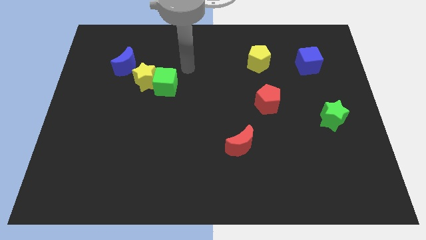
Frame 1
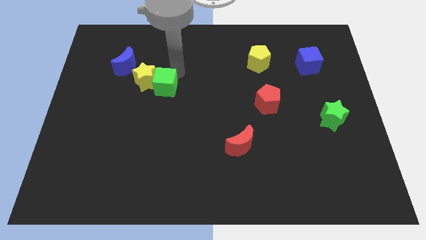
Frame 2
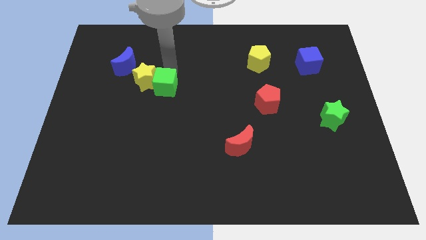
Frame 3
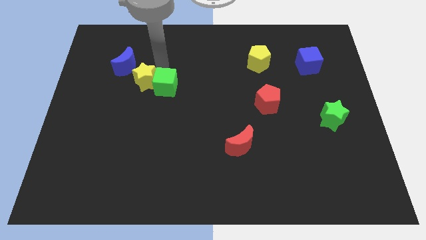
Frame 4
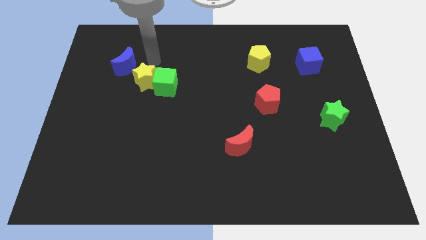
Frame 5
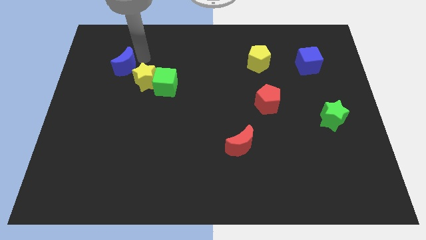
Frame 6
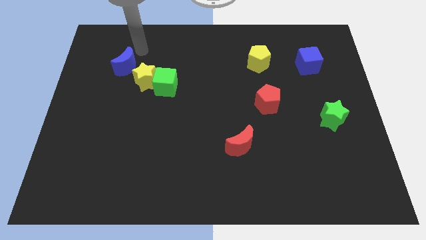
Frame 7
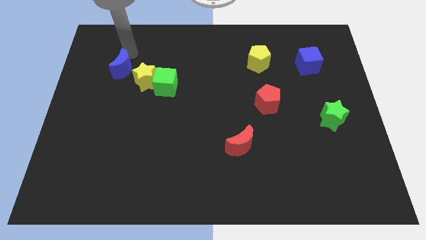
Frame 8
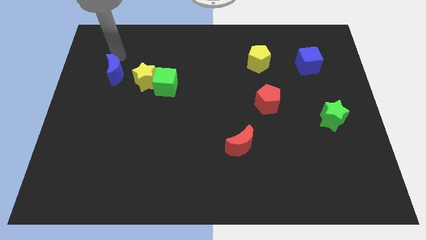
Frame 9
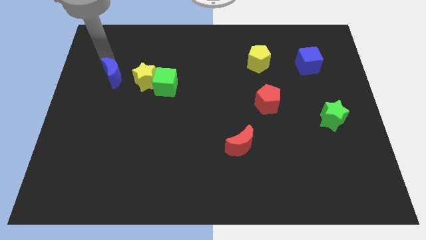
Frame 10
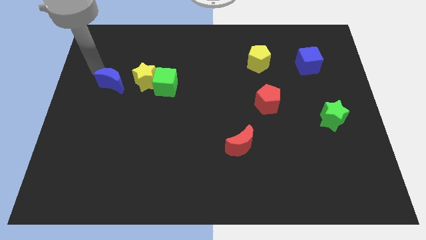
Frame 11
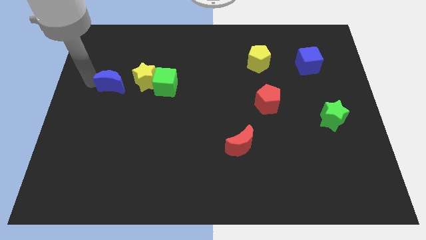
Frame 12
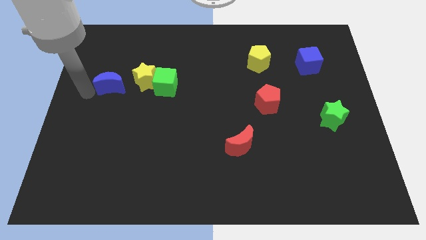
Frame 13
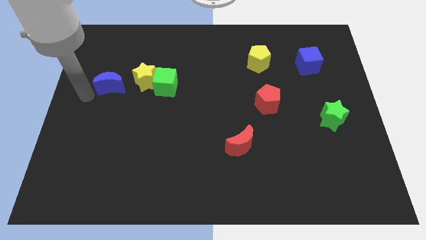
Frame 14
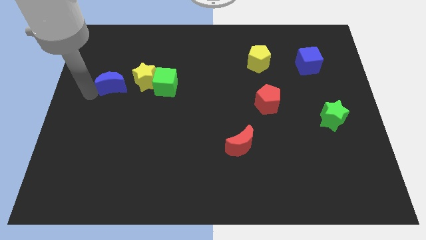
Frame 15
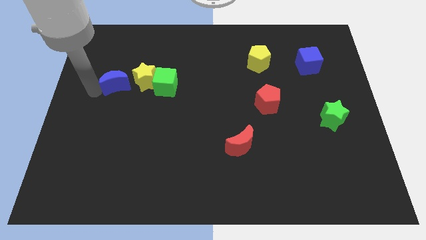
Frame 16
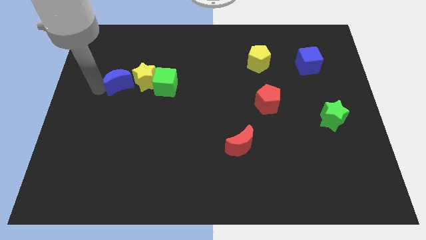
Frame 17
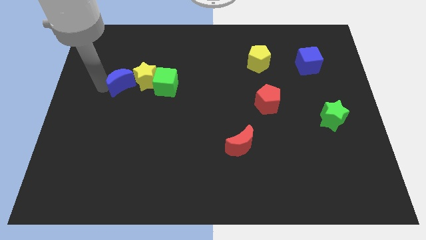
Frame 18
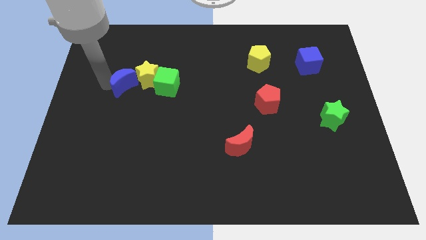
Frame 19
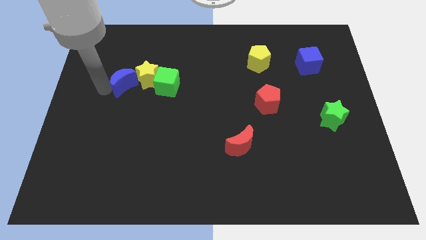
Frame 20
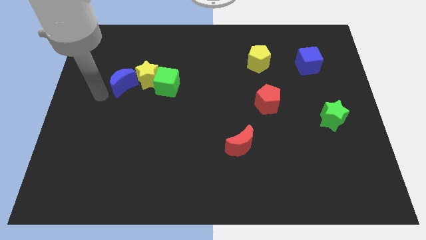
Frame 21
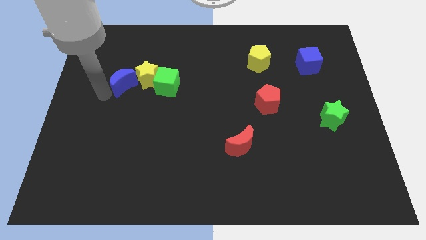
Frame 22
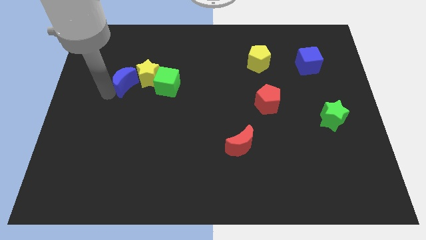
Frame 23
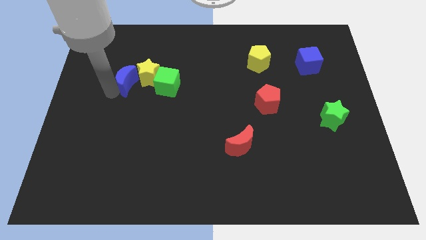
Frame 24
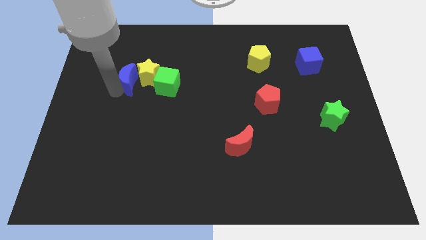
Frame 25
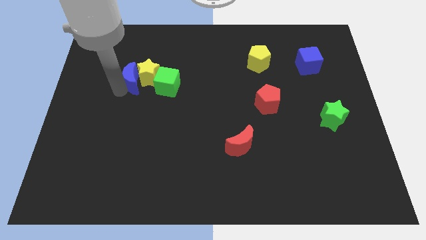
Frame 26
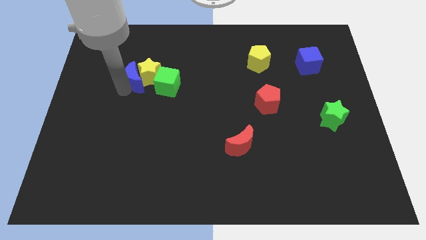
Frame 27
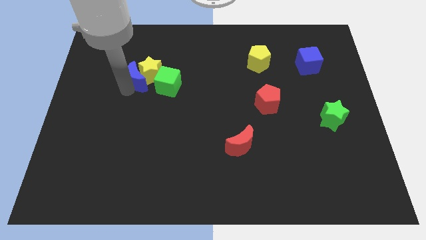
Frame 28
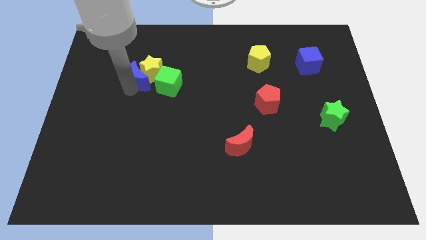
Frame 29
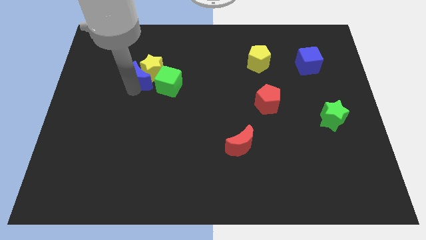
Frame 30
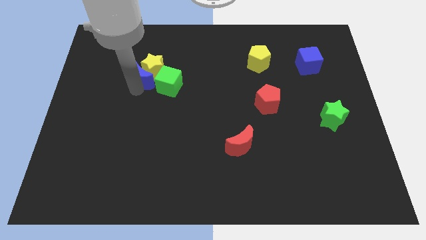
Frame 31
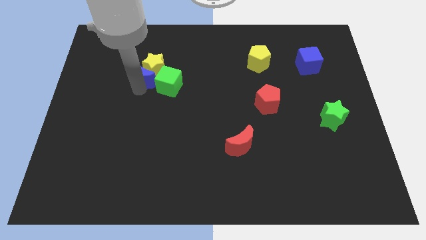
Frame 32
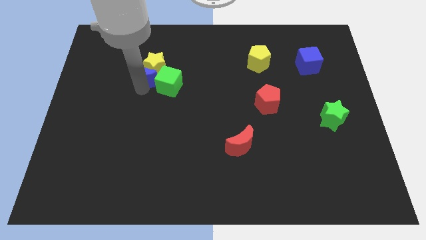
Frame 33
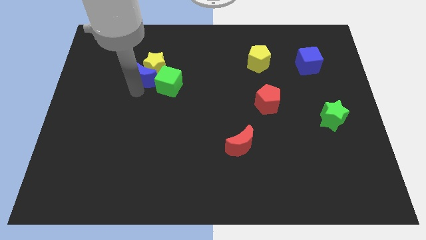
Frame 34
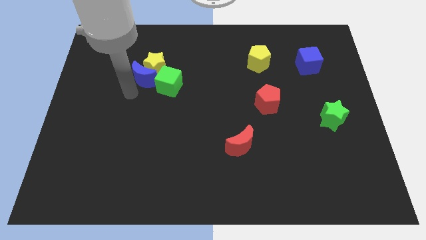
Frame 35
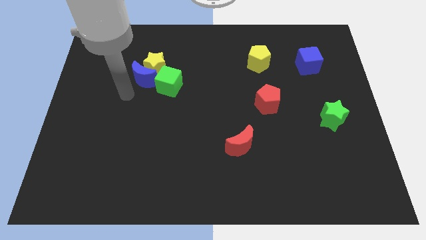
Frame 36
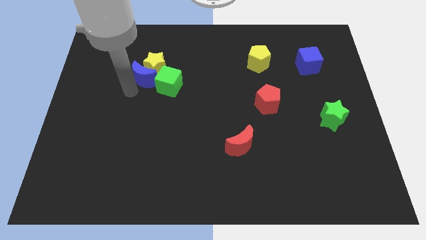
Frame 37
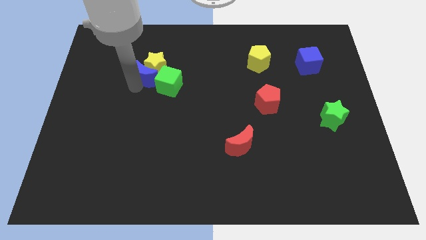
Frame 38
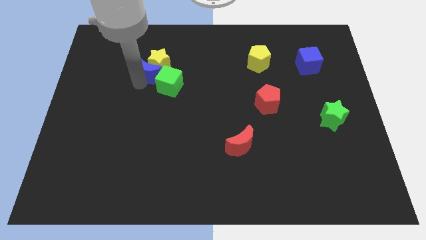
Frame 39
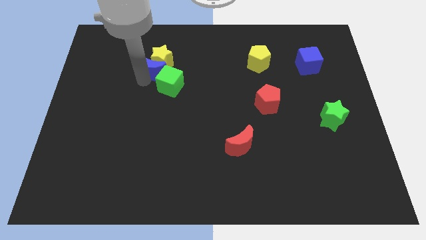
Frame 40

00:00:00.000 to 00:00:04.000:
slide the blue moon a bit right

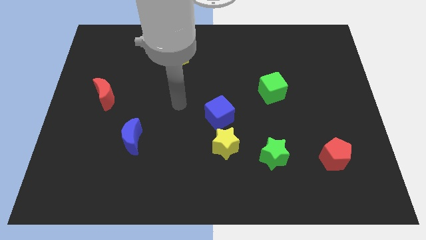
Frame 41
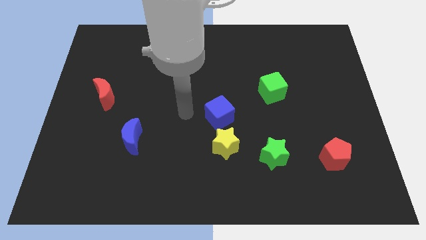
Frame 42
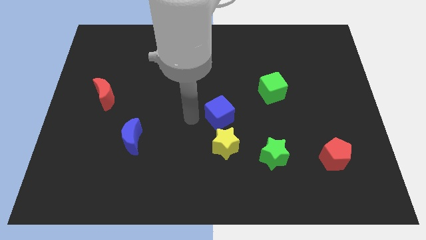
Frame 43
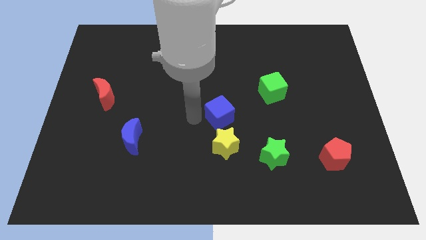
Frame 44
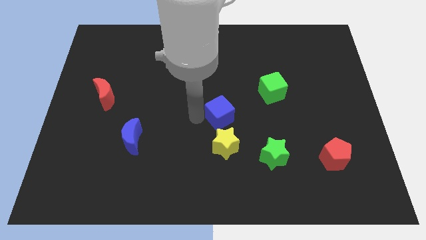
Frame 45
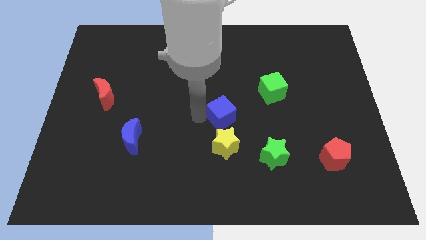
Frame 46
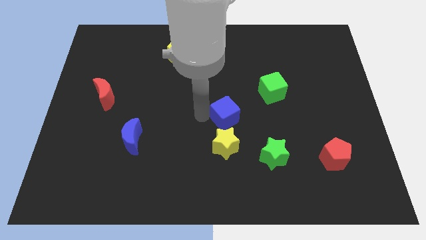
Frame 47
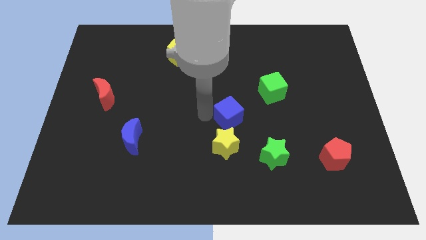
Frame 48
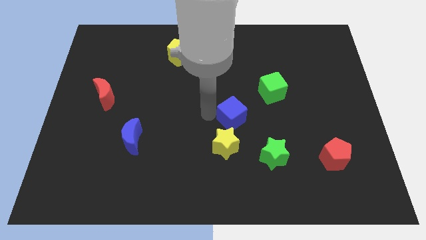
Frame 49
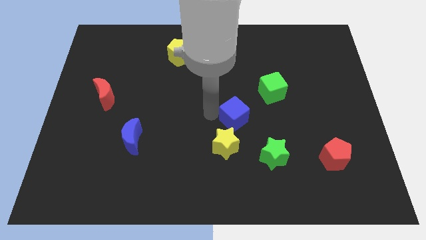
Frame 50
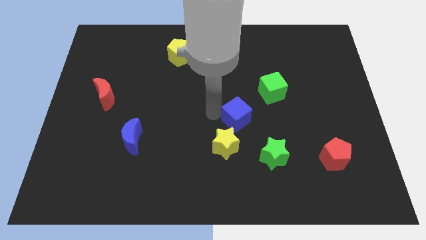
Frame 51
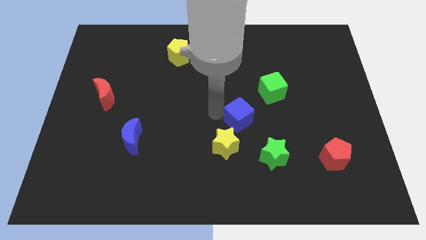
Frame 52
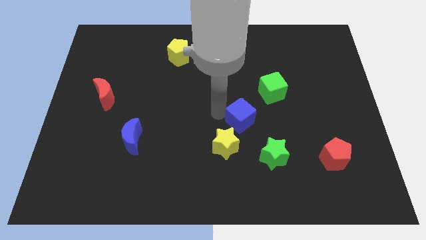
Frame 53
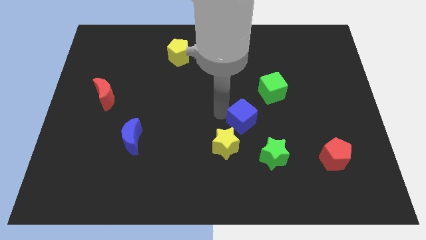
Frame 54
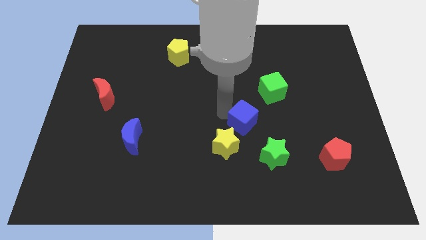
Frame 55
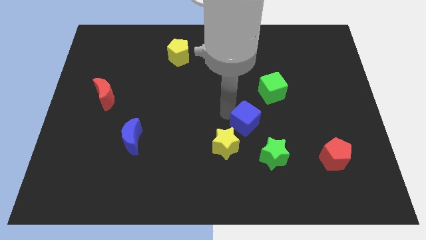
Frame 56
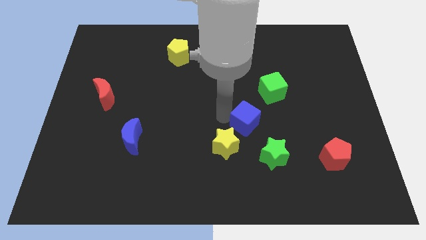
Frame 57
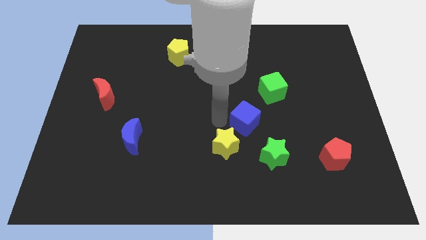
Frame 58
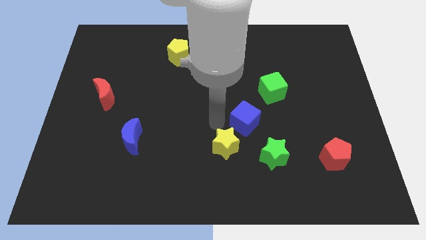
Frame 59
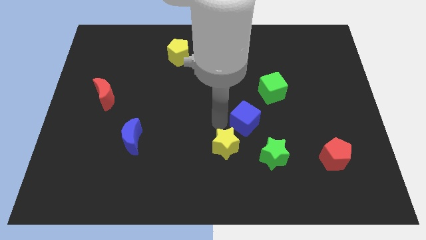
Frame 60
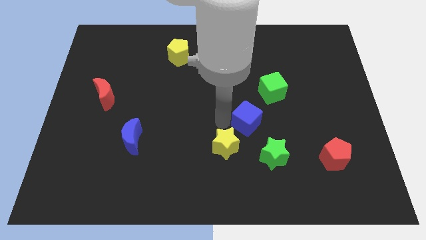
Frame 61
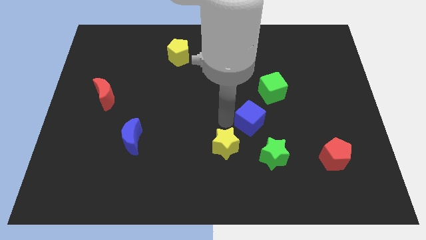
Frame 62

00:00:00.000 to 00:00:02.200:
slightly push the blue cube right

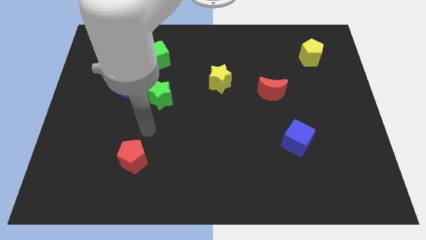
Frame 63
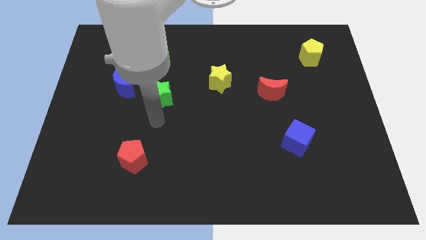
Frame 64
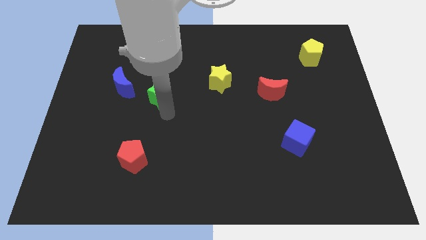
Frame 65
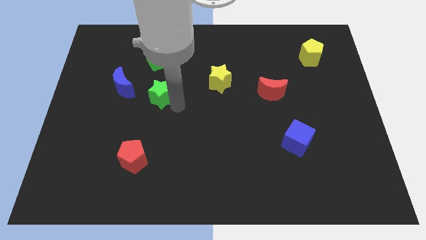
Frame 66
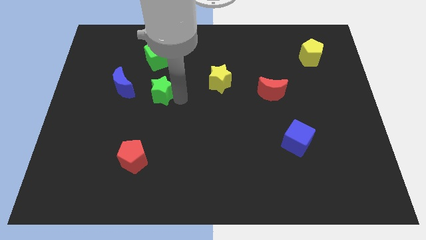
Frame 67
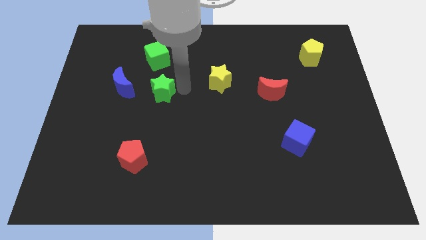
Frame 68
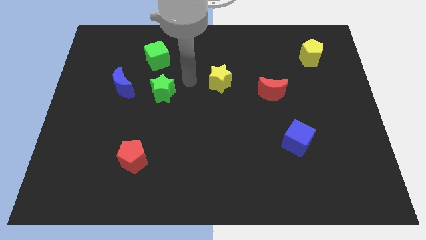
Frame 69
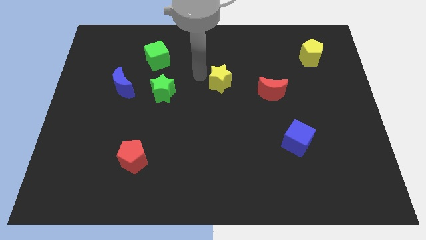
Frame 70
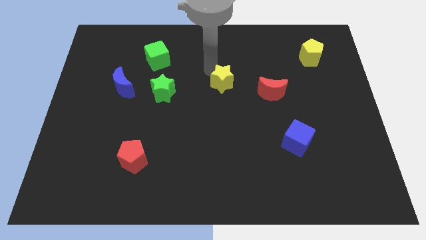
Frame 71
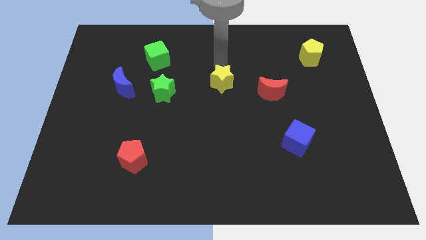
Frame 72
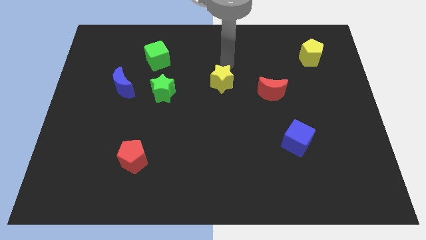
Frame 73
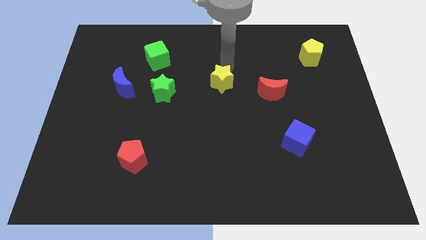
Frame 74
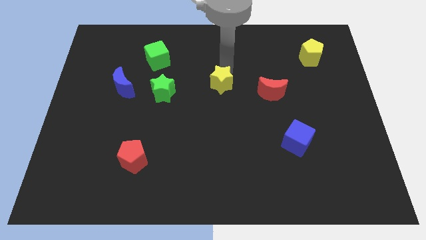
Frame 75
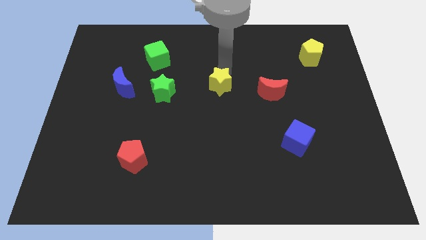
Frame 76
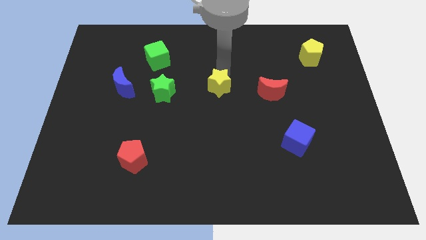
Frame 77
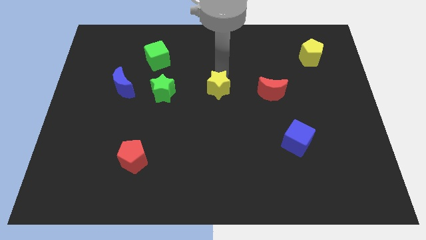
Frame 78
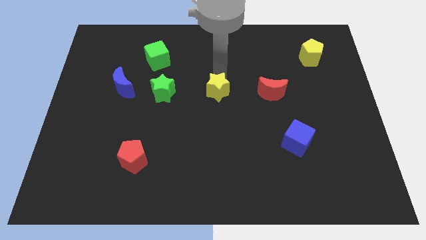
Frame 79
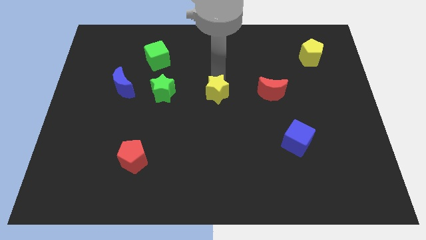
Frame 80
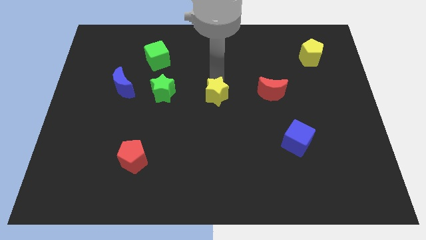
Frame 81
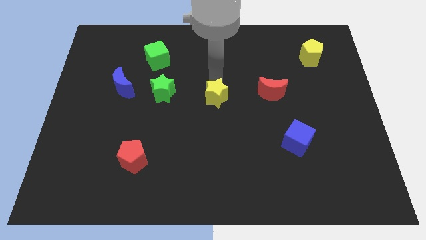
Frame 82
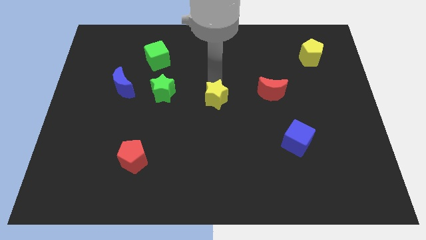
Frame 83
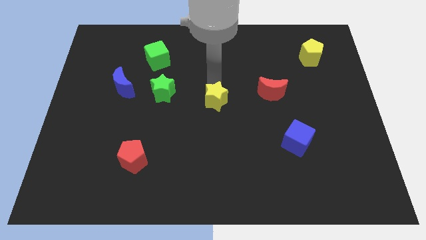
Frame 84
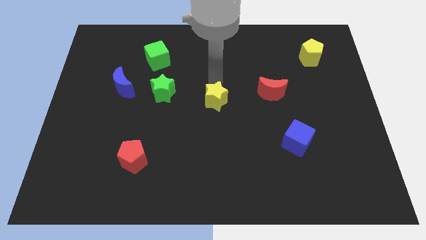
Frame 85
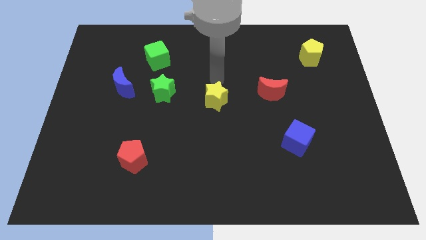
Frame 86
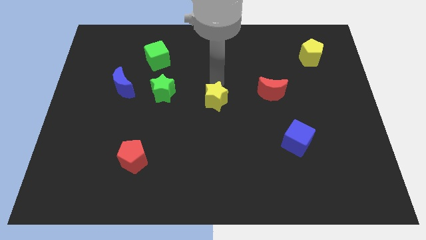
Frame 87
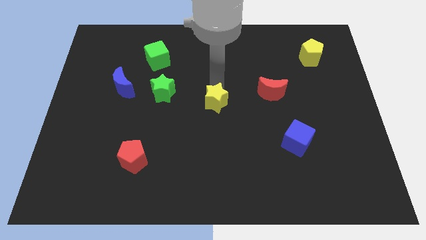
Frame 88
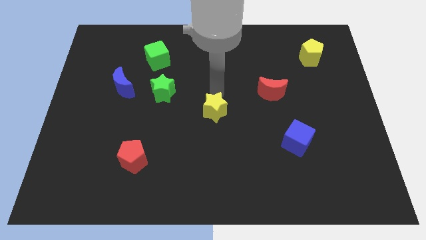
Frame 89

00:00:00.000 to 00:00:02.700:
push the yellow star a bit downwards
